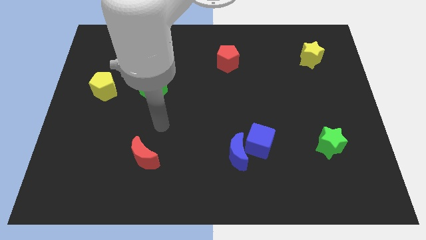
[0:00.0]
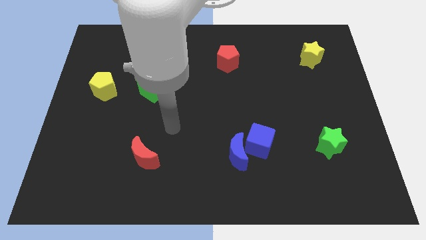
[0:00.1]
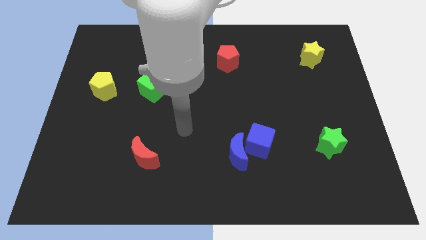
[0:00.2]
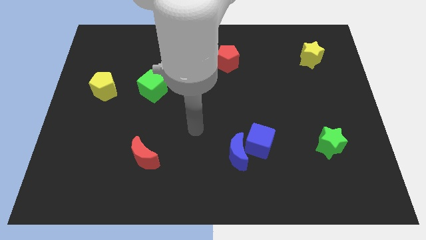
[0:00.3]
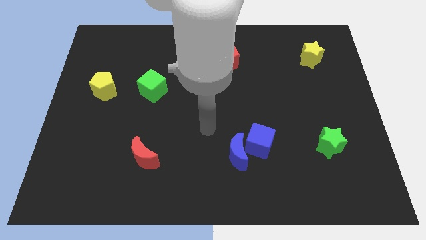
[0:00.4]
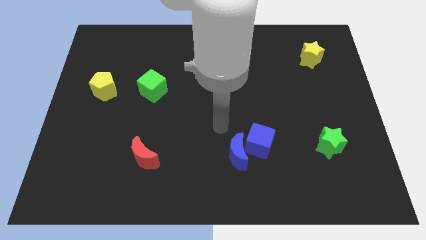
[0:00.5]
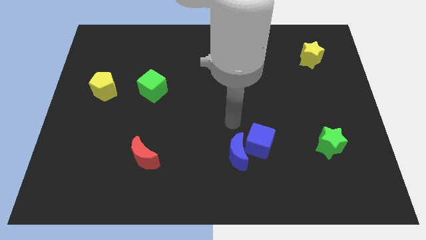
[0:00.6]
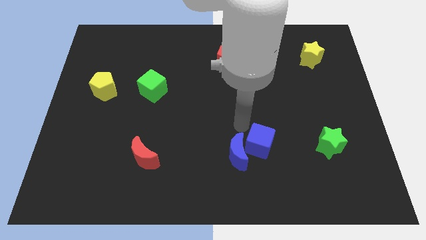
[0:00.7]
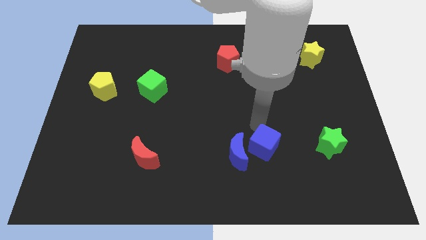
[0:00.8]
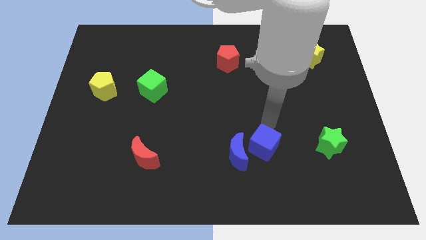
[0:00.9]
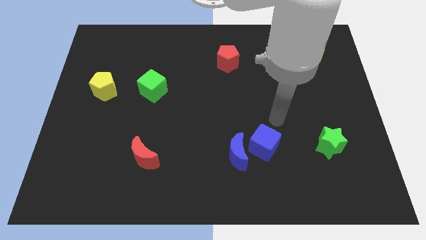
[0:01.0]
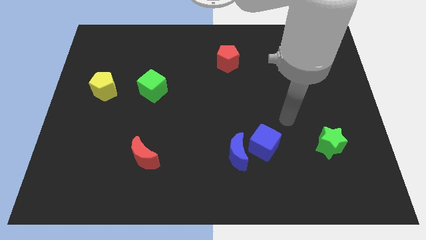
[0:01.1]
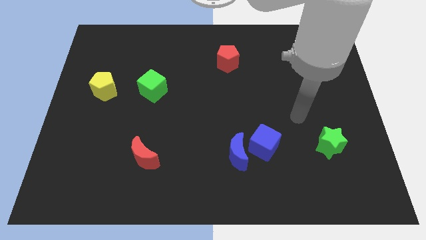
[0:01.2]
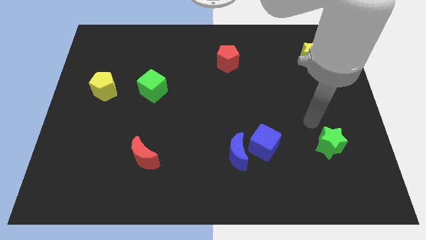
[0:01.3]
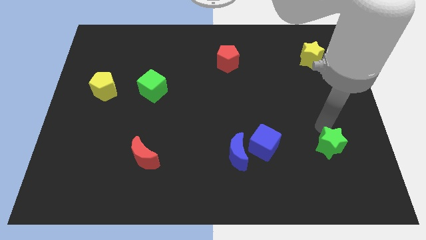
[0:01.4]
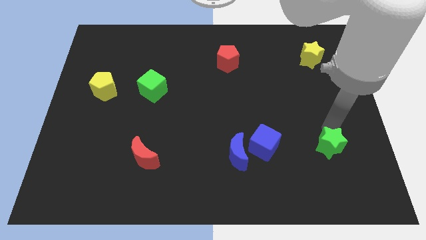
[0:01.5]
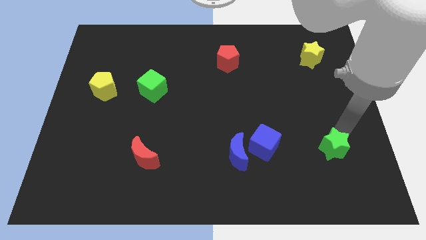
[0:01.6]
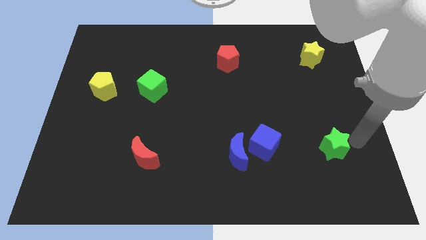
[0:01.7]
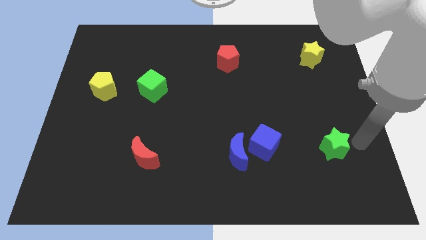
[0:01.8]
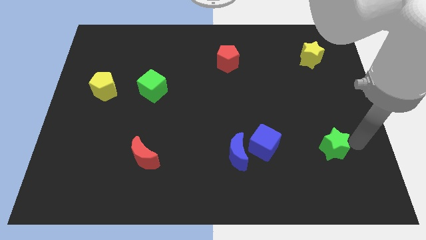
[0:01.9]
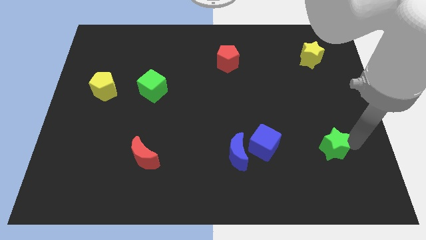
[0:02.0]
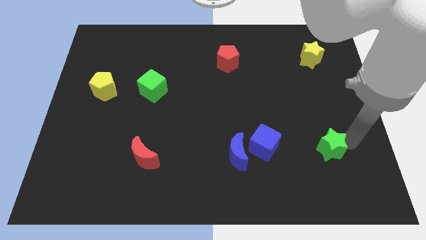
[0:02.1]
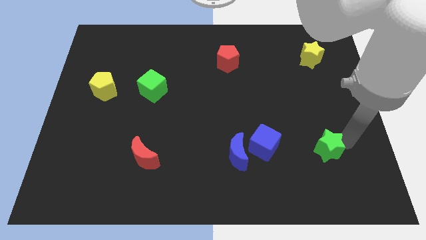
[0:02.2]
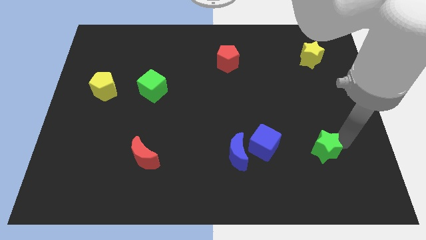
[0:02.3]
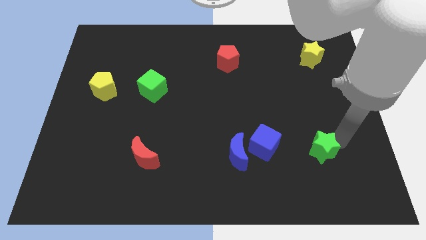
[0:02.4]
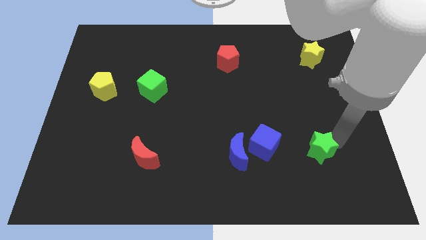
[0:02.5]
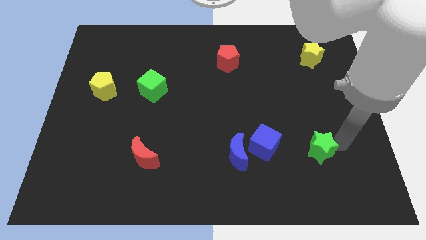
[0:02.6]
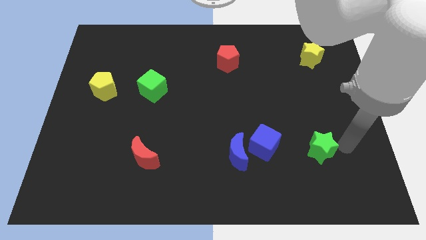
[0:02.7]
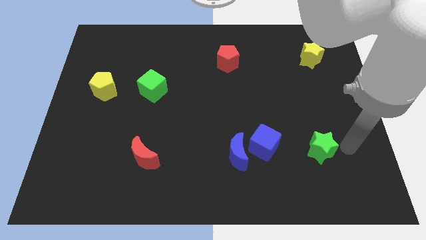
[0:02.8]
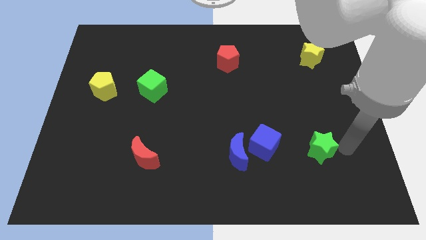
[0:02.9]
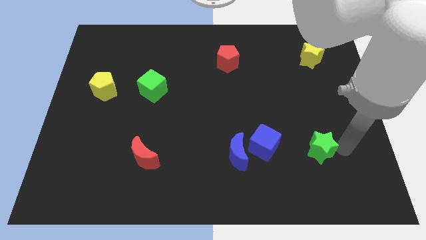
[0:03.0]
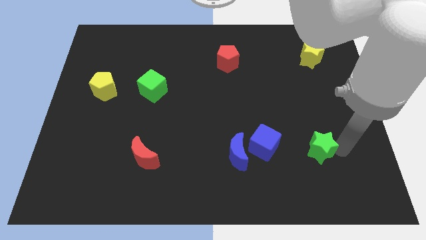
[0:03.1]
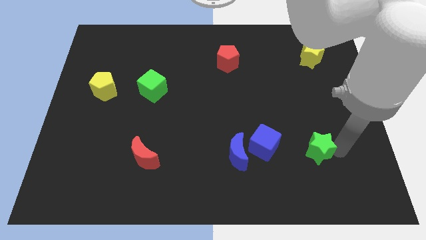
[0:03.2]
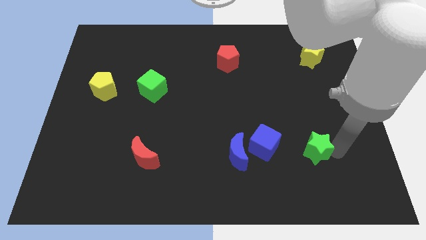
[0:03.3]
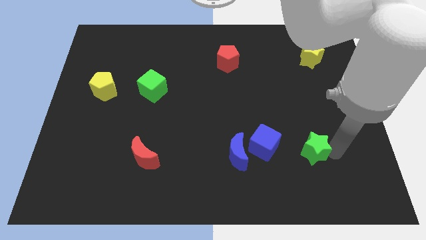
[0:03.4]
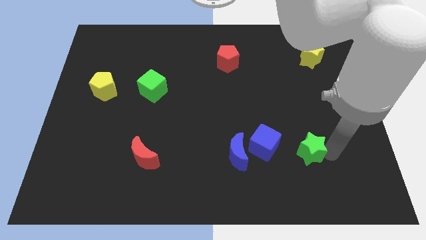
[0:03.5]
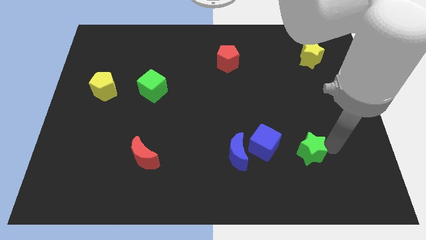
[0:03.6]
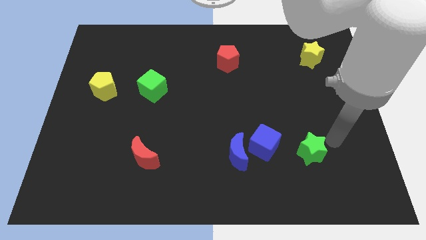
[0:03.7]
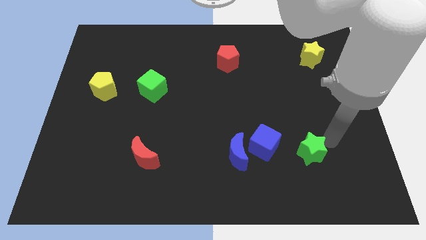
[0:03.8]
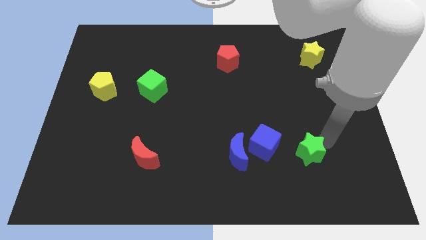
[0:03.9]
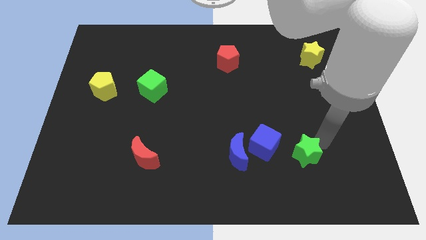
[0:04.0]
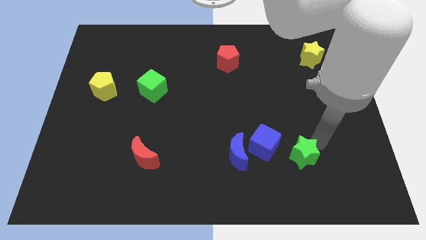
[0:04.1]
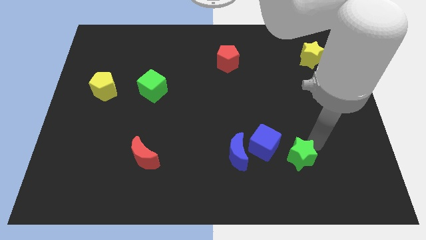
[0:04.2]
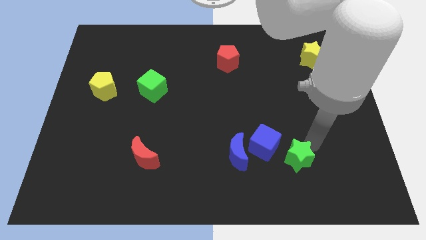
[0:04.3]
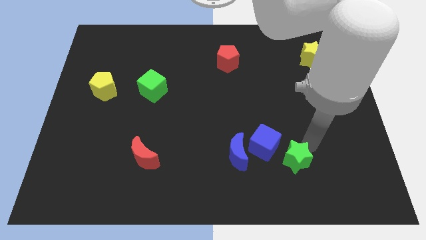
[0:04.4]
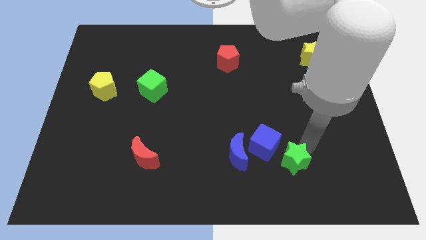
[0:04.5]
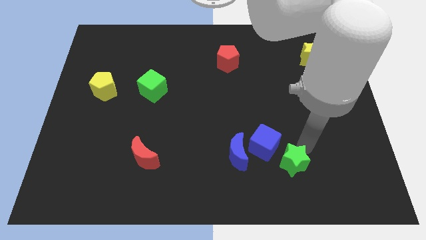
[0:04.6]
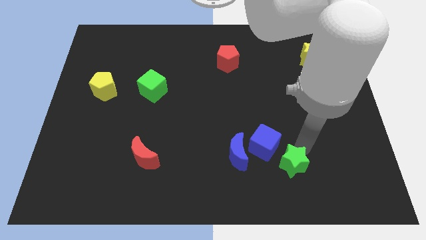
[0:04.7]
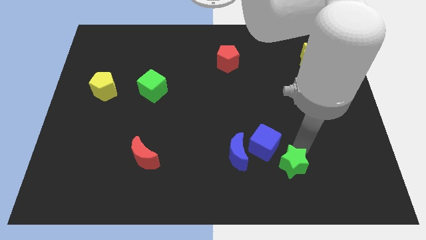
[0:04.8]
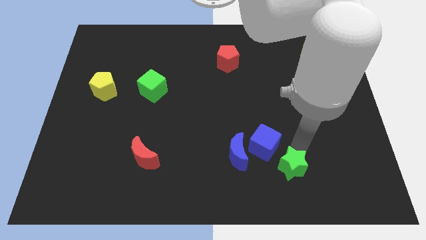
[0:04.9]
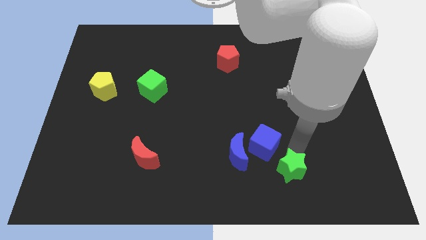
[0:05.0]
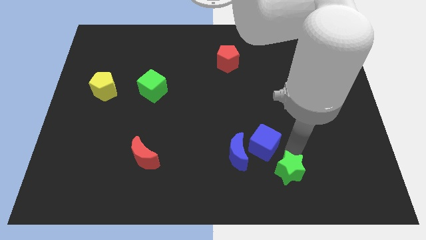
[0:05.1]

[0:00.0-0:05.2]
move the green star to the bottom right of the blue moon

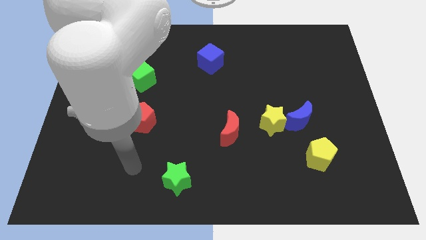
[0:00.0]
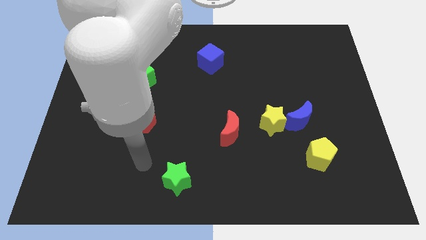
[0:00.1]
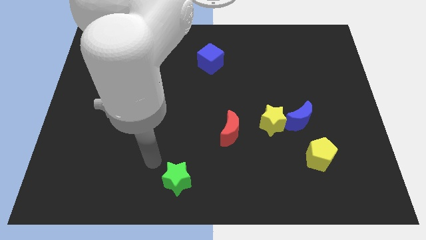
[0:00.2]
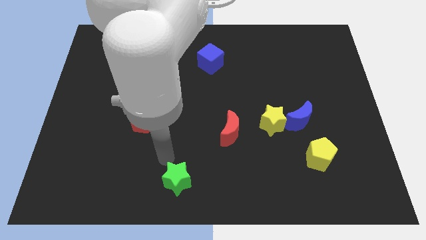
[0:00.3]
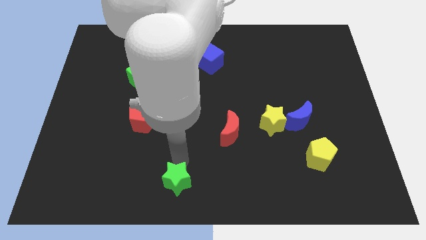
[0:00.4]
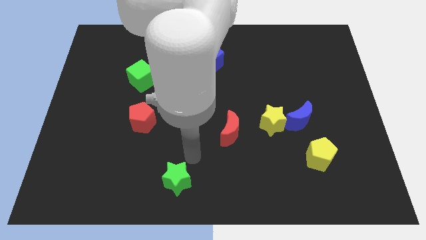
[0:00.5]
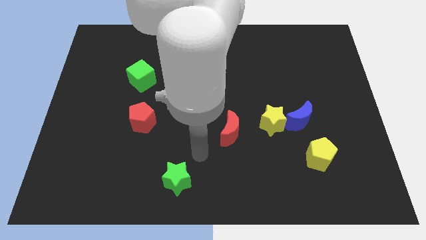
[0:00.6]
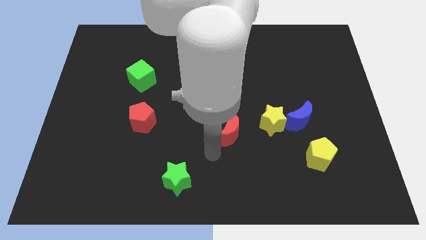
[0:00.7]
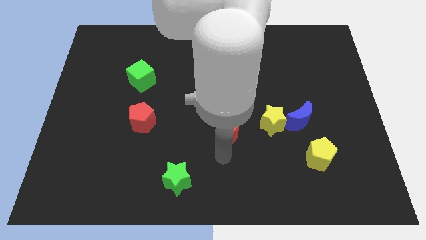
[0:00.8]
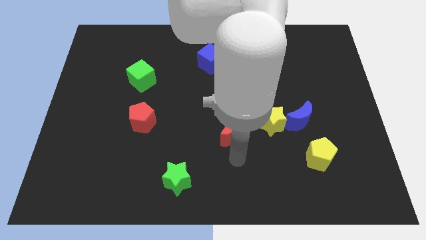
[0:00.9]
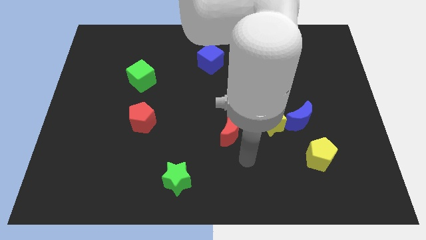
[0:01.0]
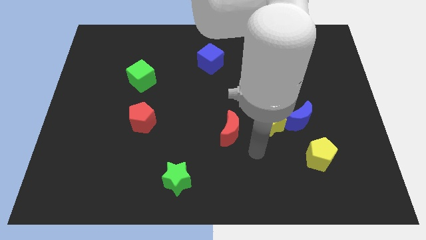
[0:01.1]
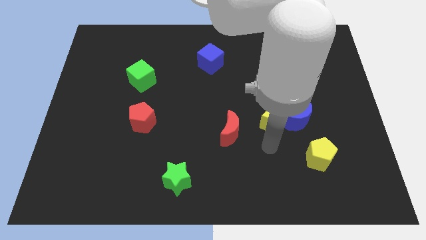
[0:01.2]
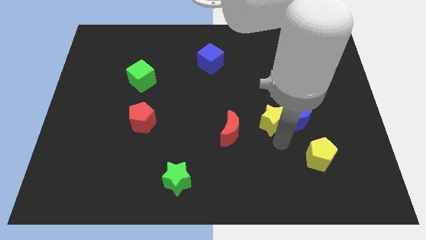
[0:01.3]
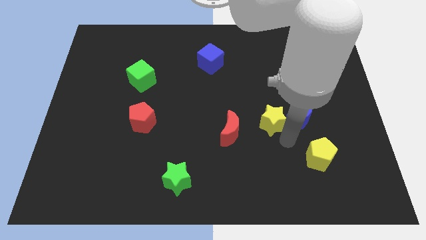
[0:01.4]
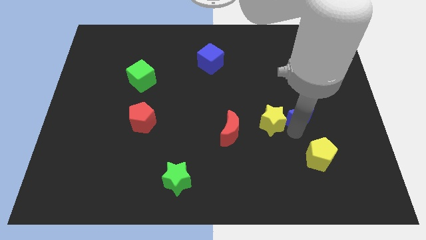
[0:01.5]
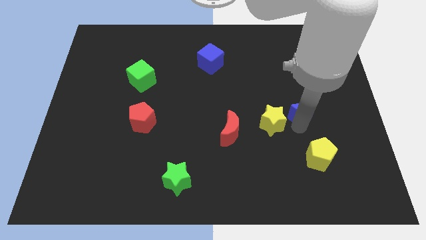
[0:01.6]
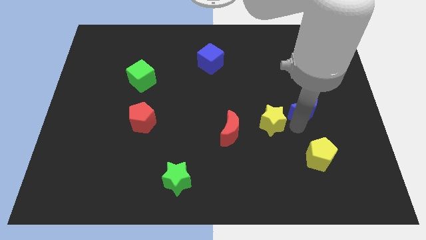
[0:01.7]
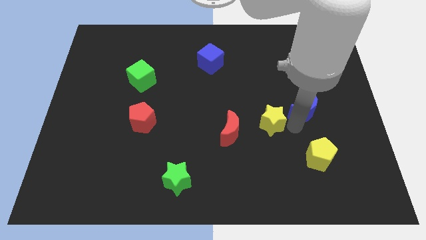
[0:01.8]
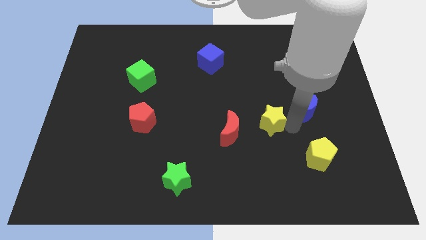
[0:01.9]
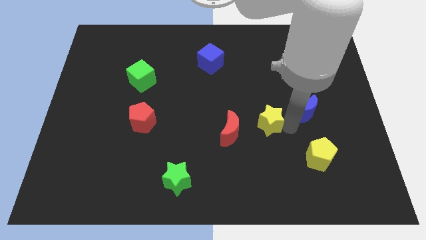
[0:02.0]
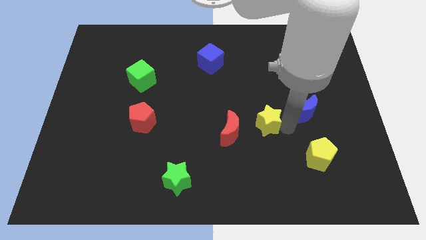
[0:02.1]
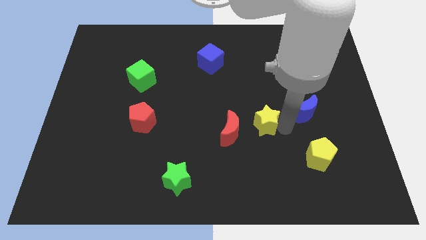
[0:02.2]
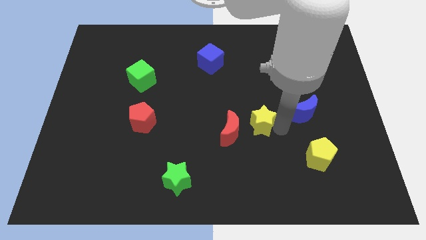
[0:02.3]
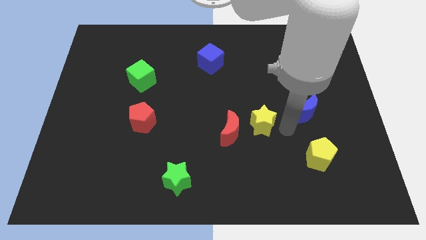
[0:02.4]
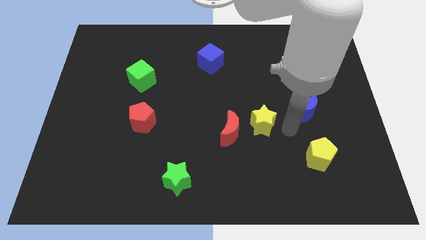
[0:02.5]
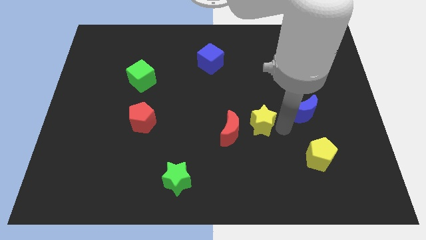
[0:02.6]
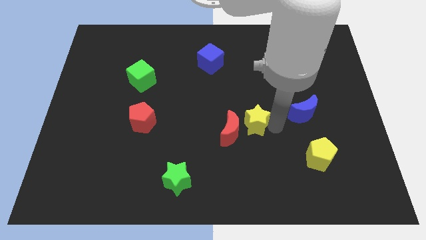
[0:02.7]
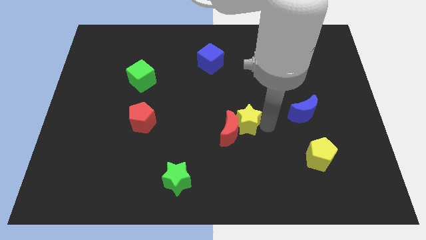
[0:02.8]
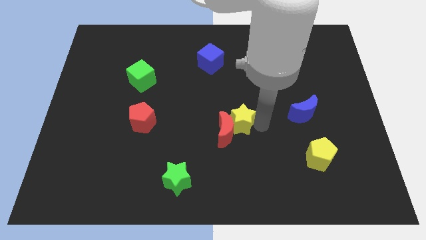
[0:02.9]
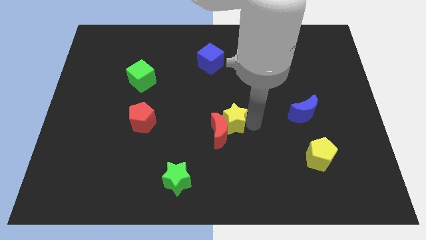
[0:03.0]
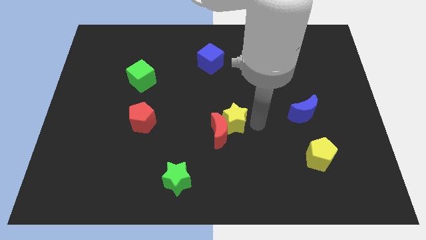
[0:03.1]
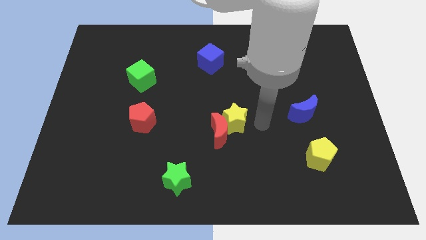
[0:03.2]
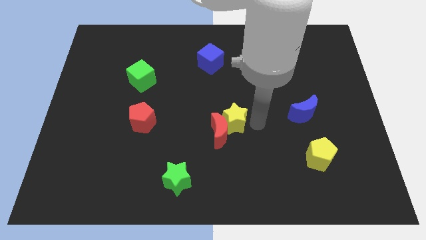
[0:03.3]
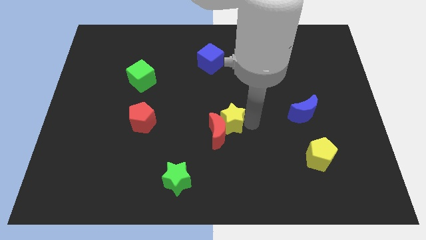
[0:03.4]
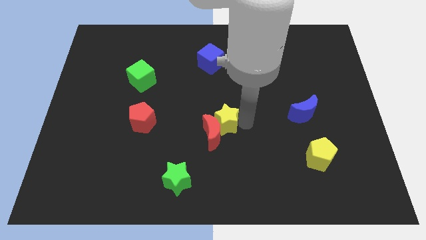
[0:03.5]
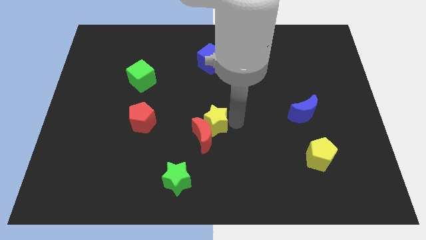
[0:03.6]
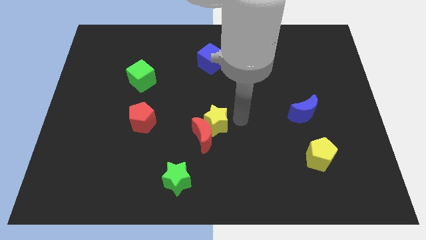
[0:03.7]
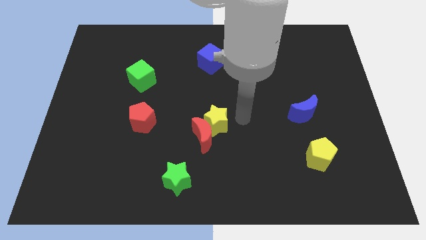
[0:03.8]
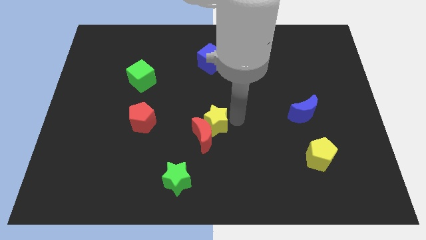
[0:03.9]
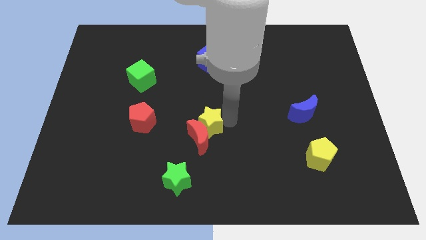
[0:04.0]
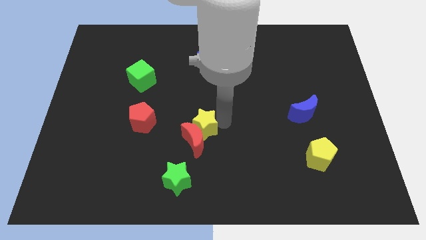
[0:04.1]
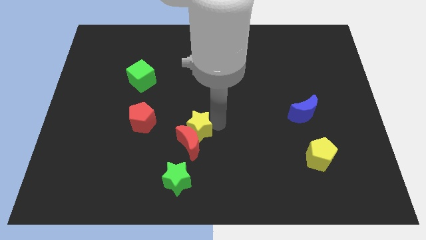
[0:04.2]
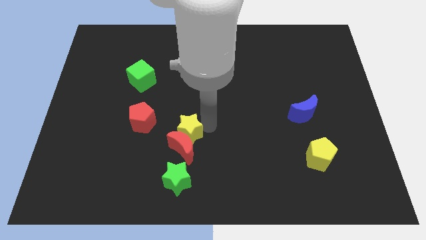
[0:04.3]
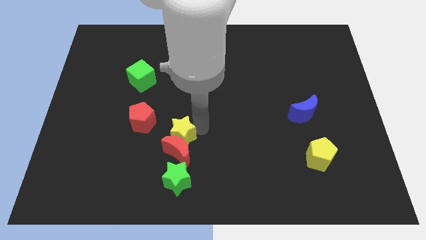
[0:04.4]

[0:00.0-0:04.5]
slide the yellow star to the bottom right side of the red pentagon
